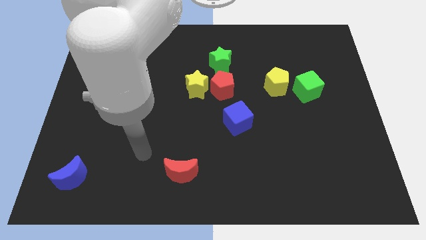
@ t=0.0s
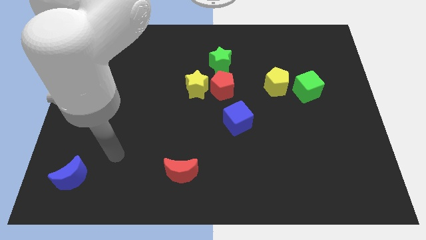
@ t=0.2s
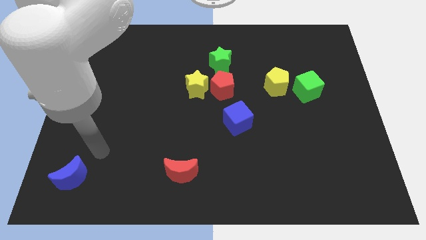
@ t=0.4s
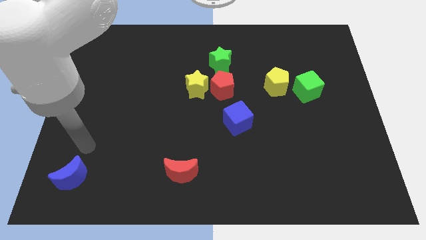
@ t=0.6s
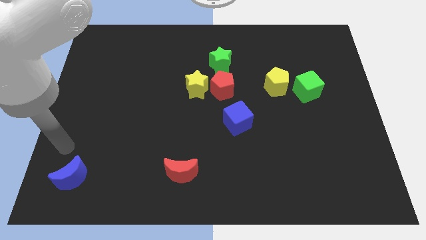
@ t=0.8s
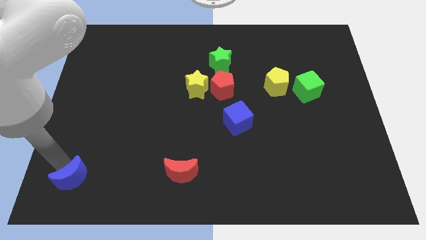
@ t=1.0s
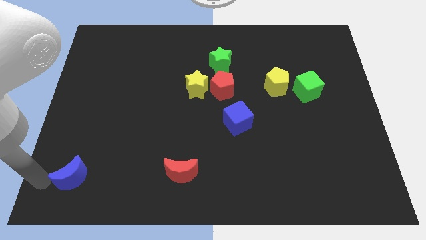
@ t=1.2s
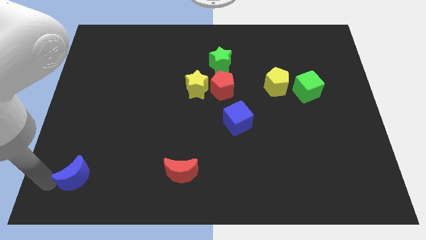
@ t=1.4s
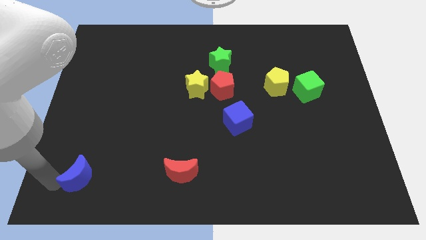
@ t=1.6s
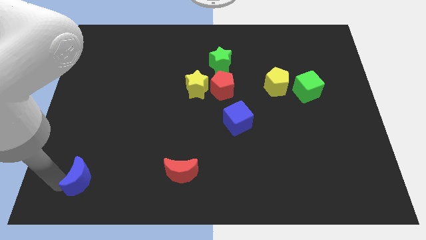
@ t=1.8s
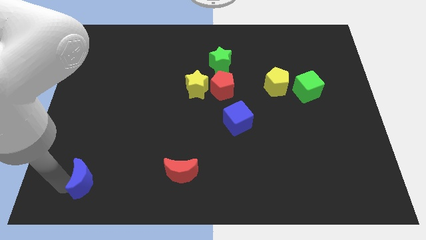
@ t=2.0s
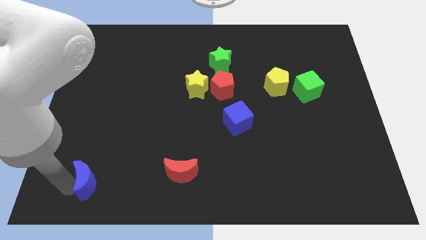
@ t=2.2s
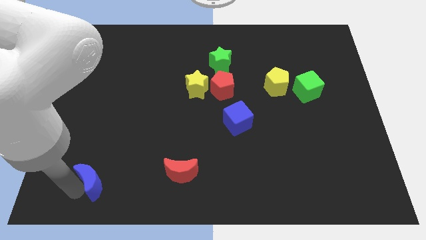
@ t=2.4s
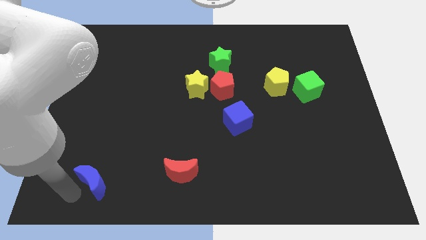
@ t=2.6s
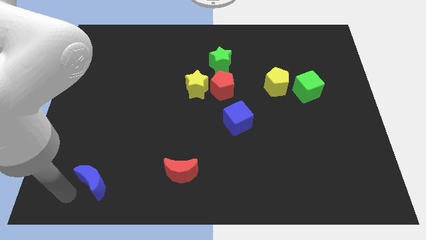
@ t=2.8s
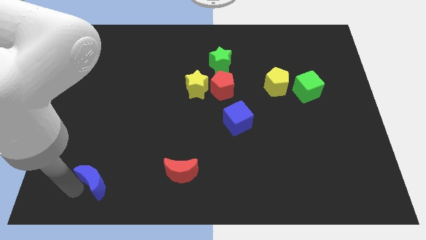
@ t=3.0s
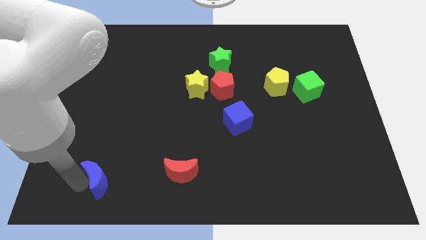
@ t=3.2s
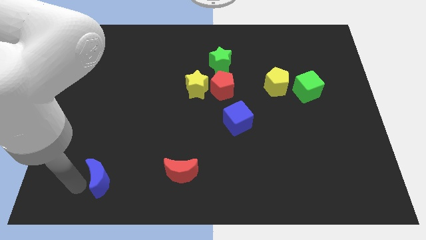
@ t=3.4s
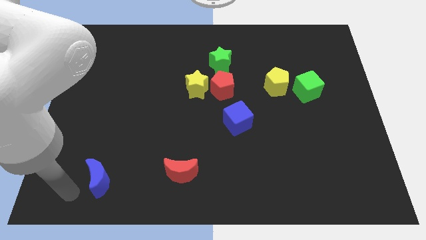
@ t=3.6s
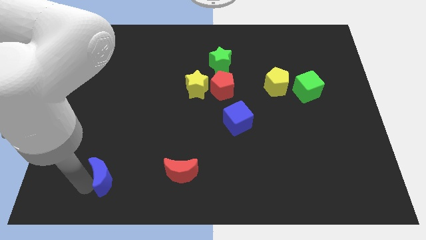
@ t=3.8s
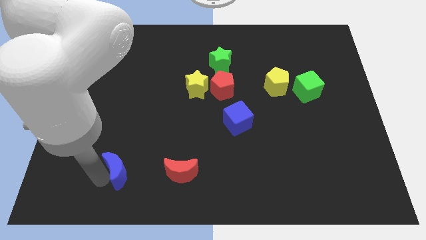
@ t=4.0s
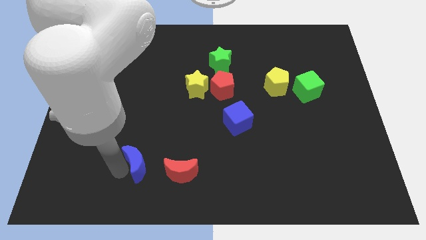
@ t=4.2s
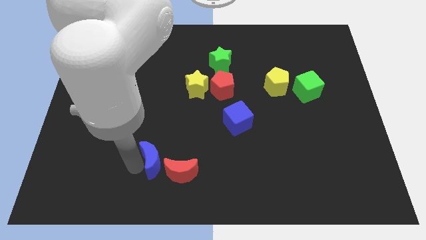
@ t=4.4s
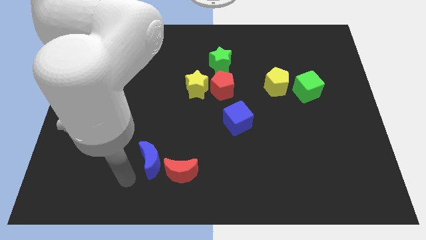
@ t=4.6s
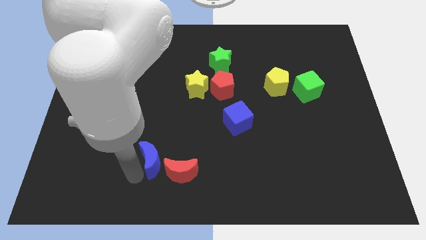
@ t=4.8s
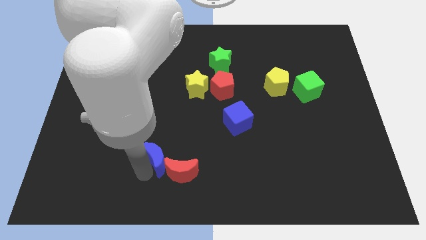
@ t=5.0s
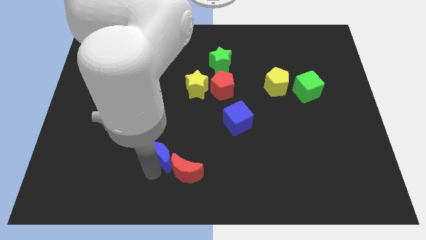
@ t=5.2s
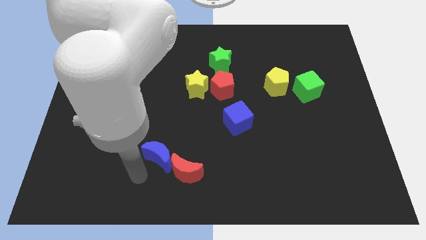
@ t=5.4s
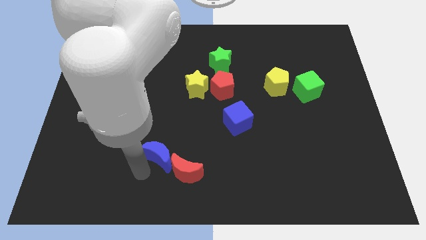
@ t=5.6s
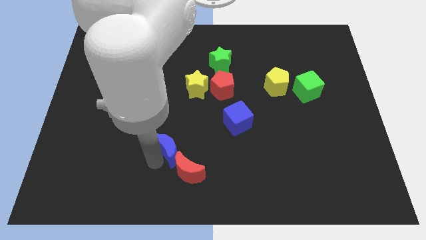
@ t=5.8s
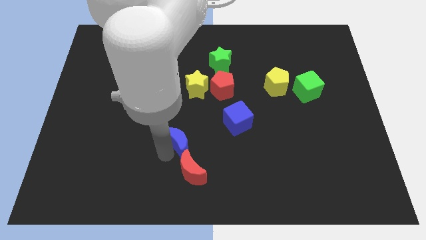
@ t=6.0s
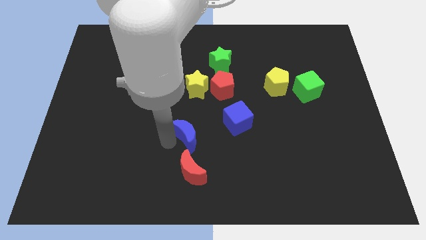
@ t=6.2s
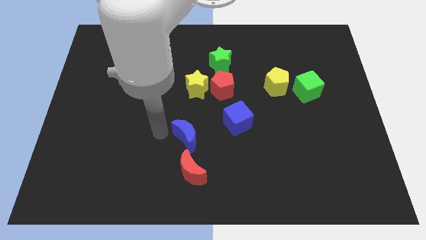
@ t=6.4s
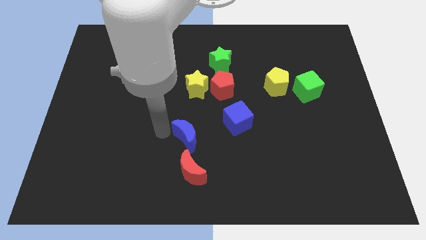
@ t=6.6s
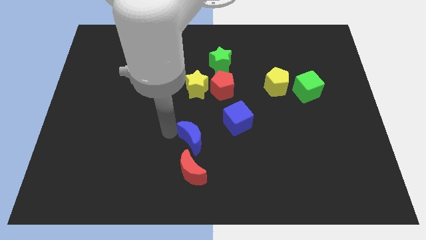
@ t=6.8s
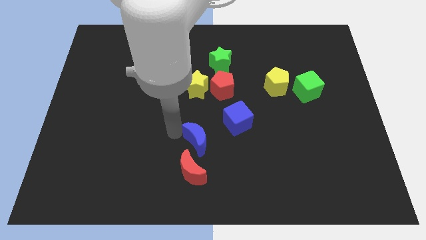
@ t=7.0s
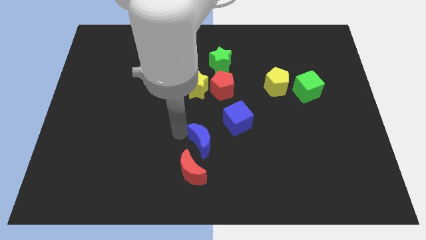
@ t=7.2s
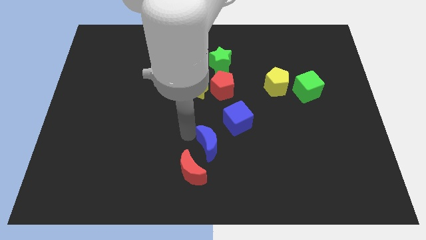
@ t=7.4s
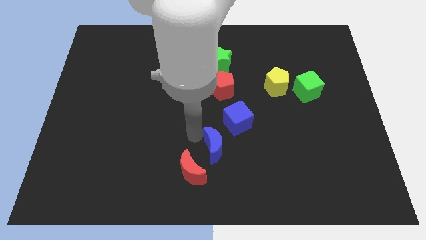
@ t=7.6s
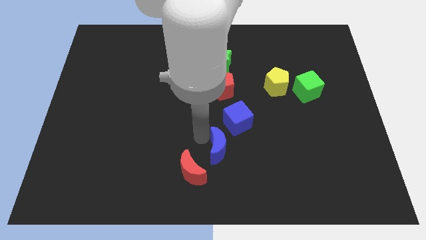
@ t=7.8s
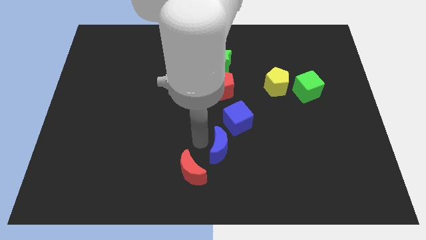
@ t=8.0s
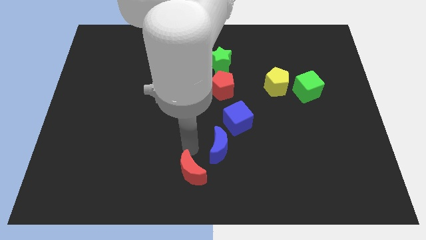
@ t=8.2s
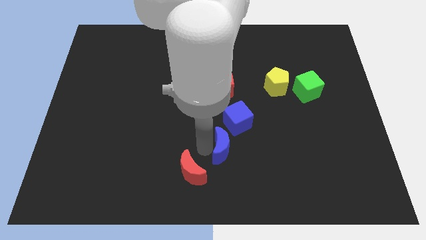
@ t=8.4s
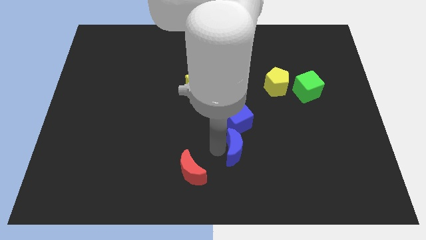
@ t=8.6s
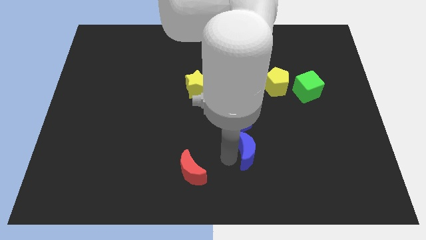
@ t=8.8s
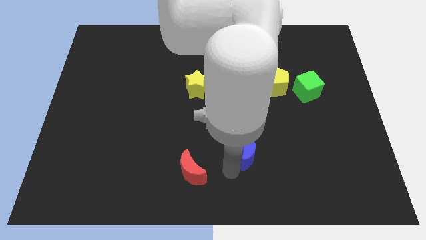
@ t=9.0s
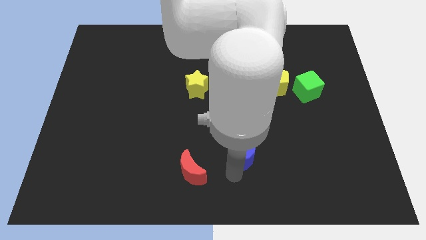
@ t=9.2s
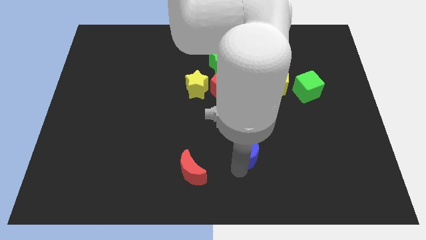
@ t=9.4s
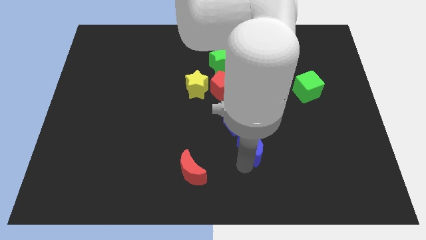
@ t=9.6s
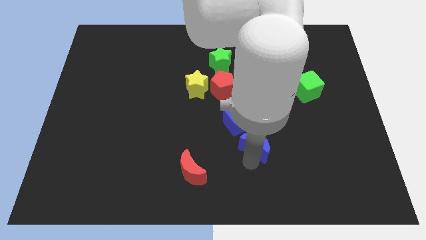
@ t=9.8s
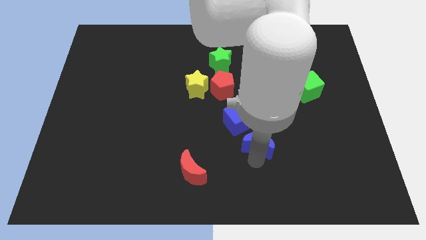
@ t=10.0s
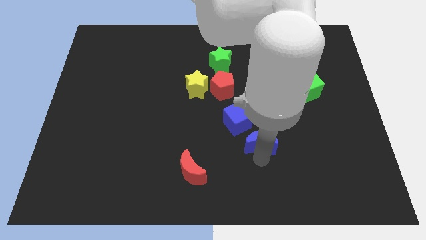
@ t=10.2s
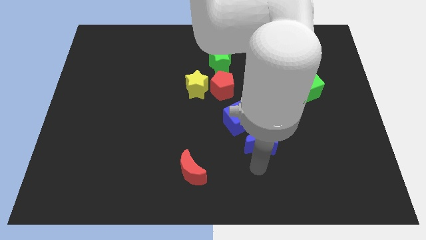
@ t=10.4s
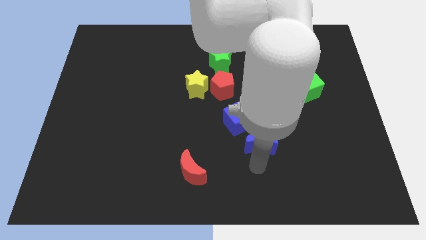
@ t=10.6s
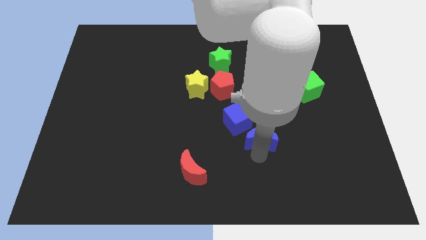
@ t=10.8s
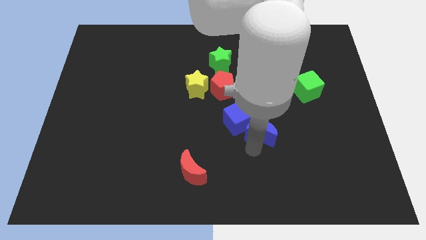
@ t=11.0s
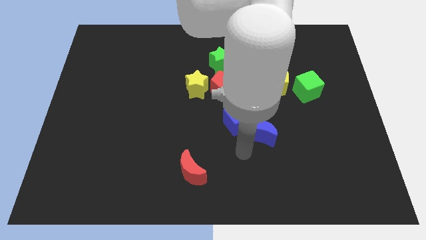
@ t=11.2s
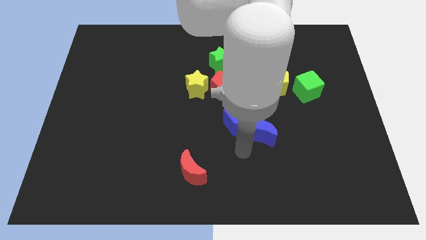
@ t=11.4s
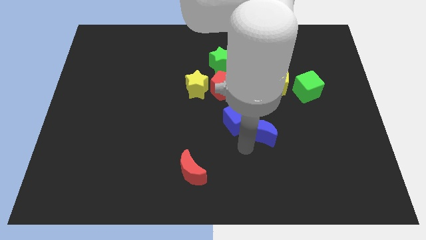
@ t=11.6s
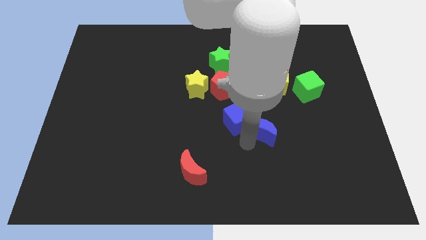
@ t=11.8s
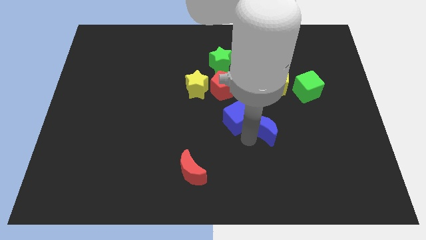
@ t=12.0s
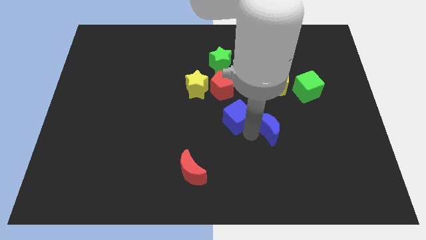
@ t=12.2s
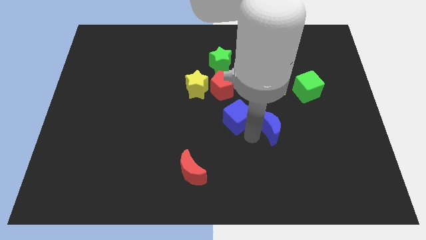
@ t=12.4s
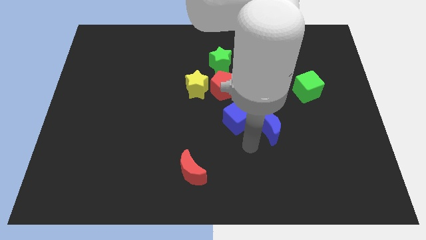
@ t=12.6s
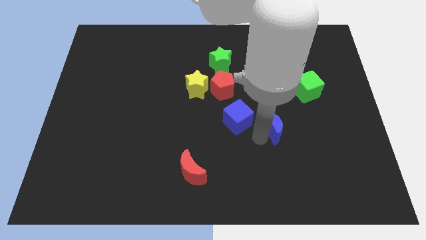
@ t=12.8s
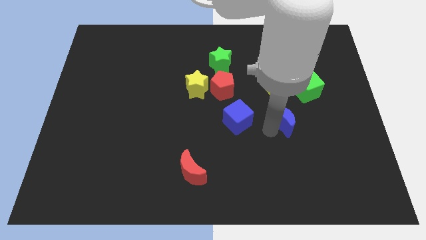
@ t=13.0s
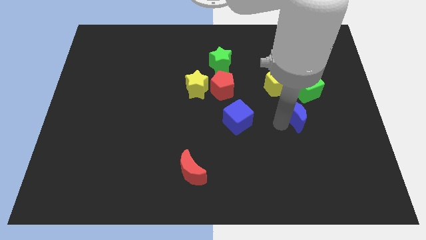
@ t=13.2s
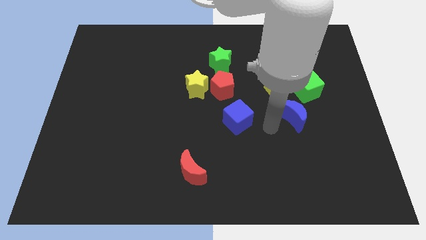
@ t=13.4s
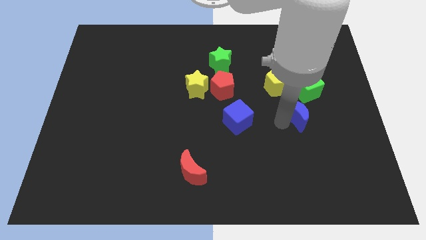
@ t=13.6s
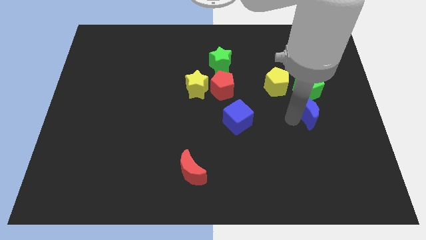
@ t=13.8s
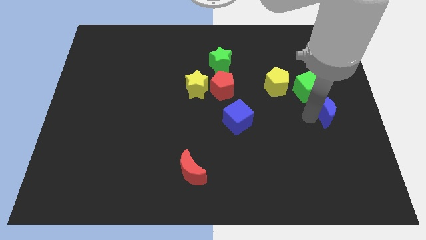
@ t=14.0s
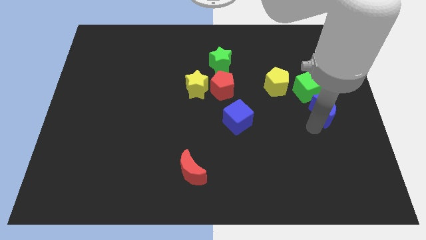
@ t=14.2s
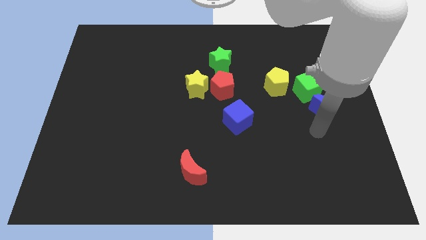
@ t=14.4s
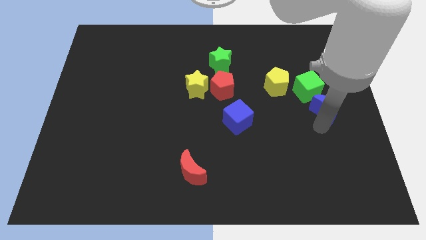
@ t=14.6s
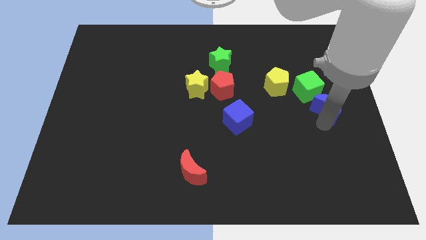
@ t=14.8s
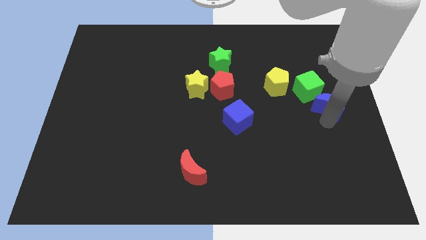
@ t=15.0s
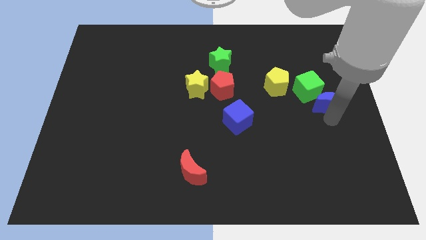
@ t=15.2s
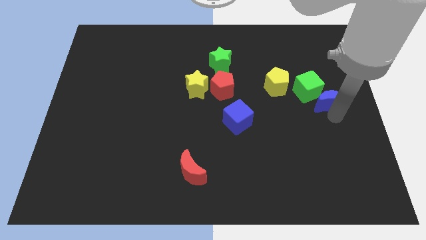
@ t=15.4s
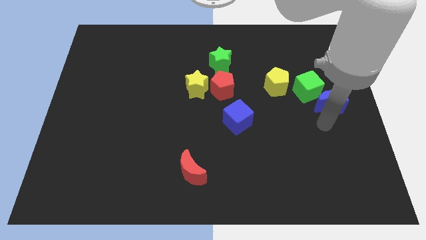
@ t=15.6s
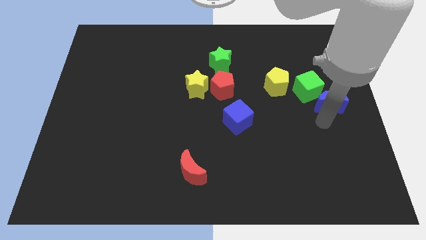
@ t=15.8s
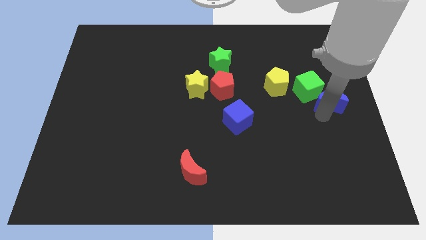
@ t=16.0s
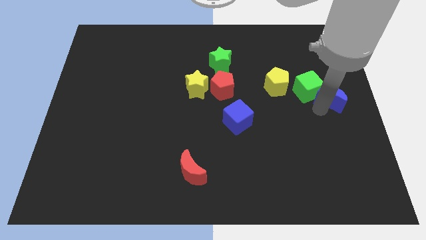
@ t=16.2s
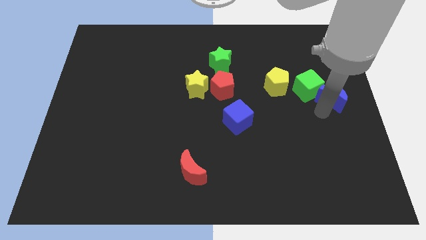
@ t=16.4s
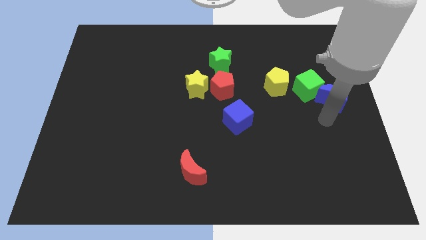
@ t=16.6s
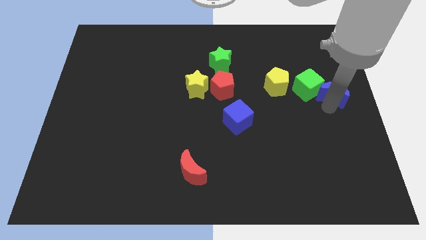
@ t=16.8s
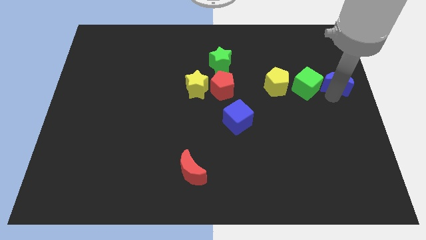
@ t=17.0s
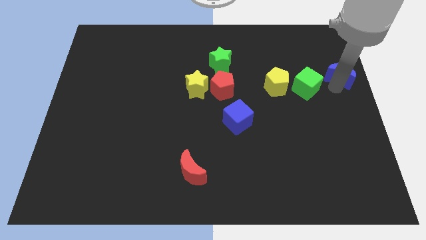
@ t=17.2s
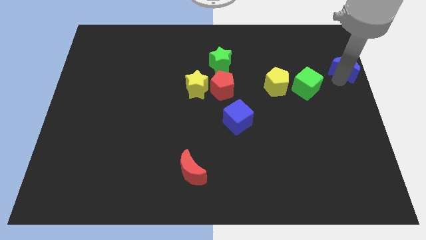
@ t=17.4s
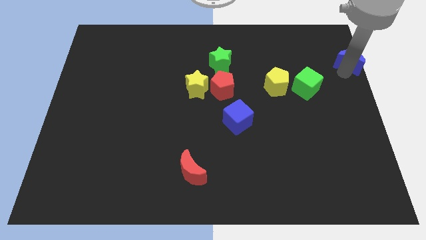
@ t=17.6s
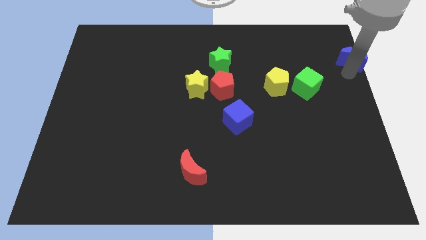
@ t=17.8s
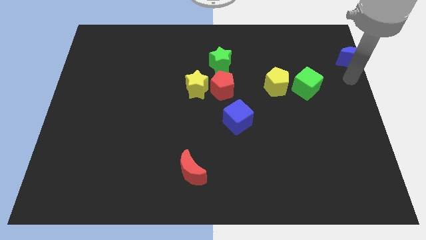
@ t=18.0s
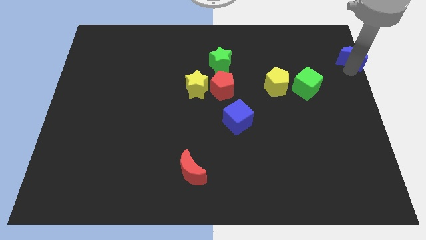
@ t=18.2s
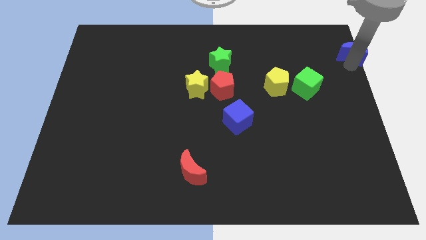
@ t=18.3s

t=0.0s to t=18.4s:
put the blue moon to the top right corner
